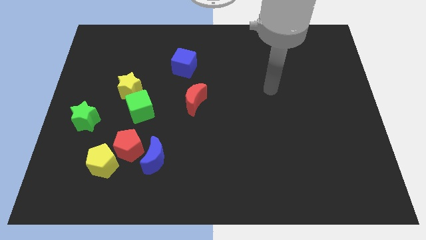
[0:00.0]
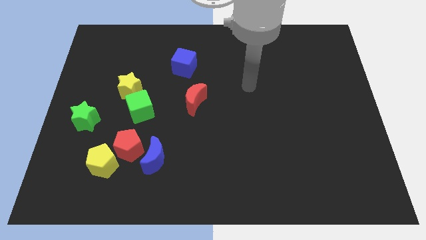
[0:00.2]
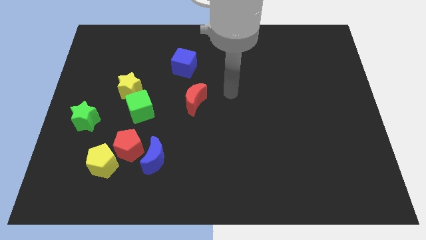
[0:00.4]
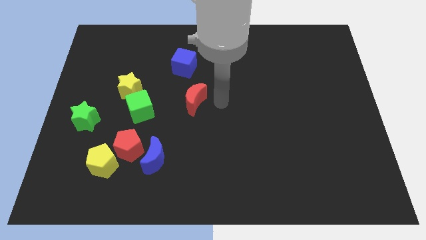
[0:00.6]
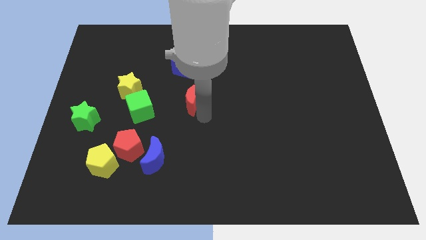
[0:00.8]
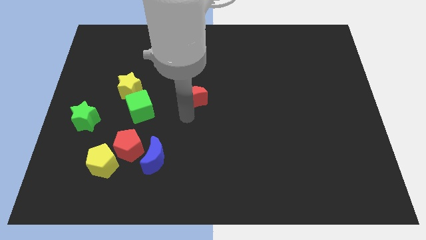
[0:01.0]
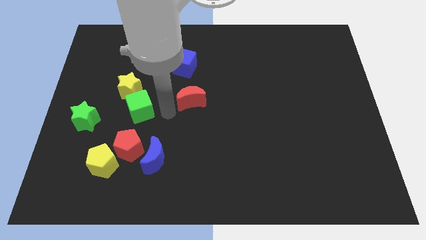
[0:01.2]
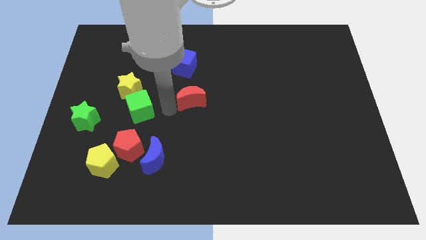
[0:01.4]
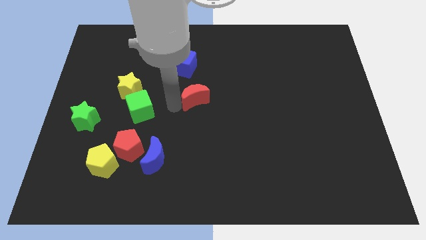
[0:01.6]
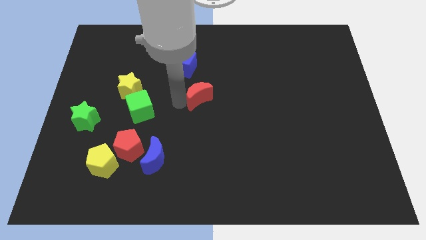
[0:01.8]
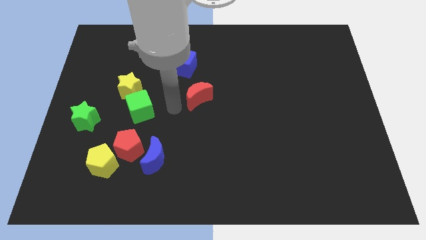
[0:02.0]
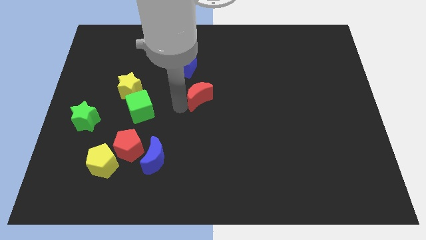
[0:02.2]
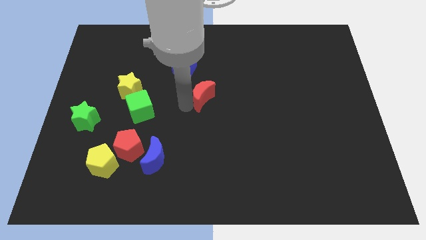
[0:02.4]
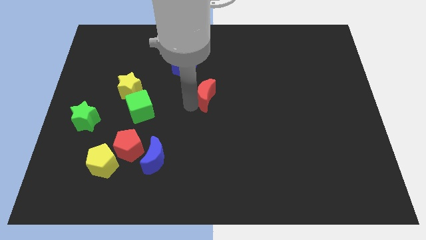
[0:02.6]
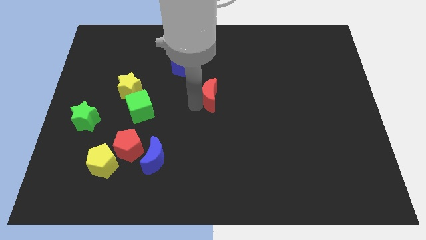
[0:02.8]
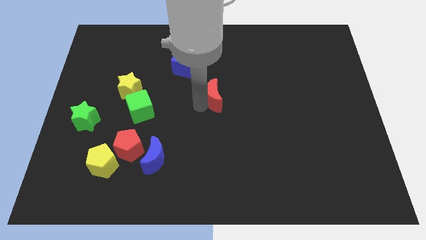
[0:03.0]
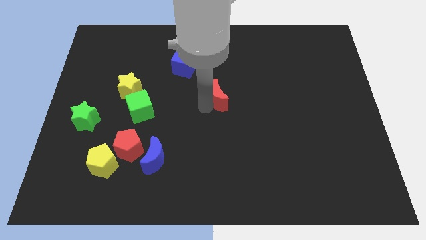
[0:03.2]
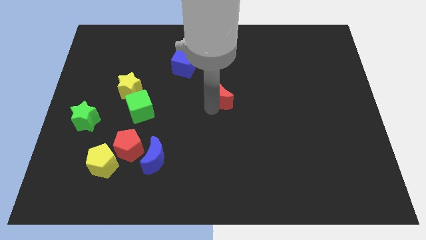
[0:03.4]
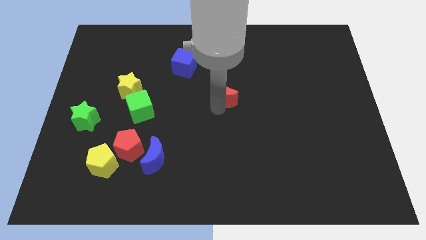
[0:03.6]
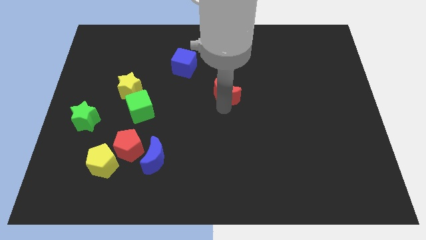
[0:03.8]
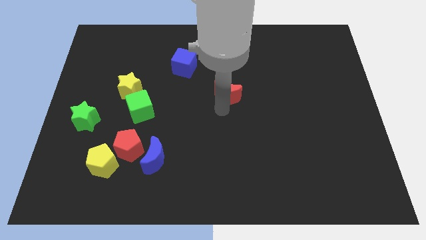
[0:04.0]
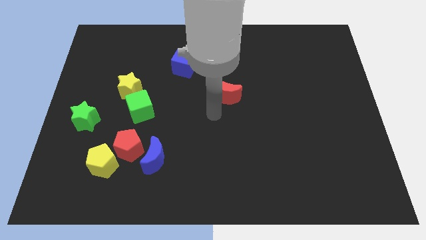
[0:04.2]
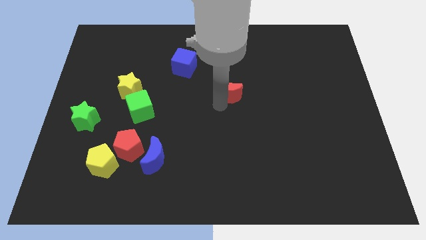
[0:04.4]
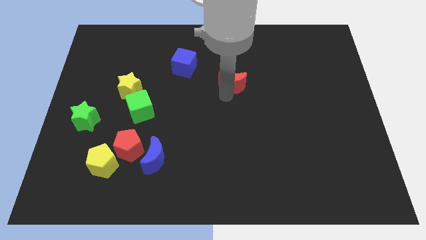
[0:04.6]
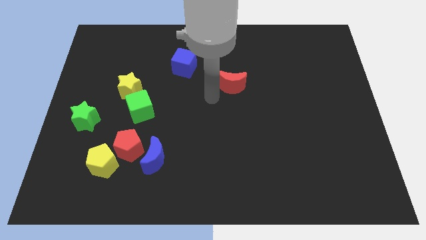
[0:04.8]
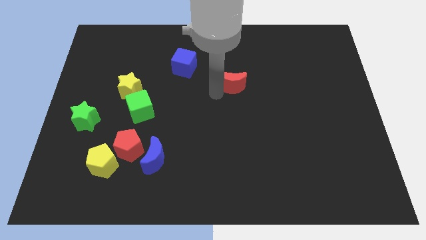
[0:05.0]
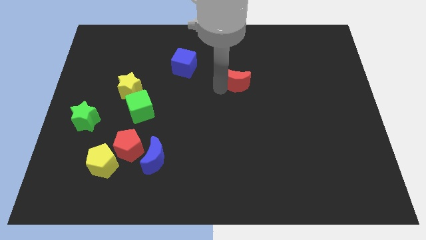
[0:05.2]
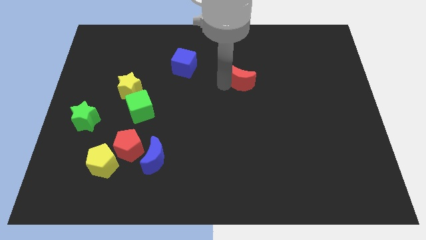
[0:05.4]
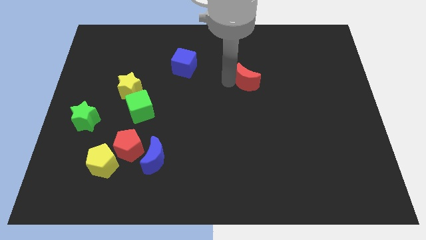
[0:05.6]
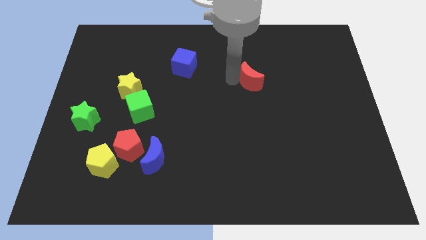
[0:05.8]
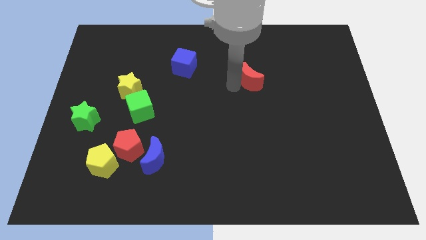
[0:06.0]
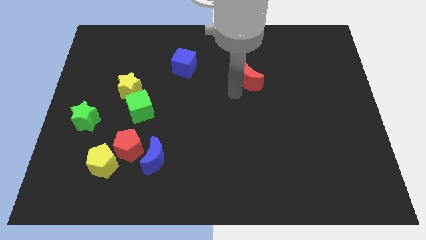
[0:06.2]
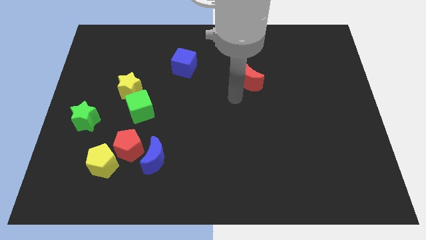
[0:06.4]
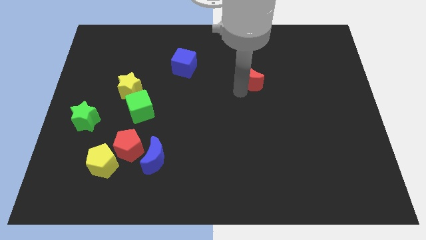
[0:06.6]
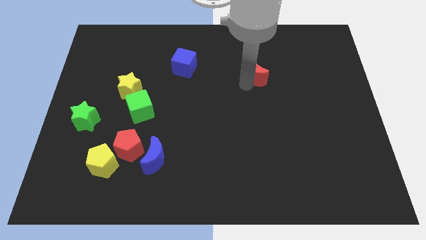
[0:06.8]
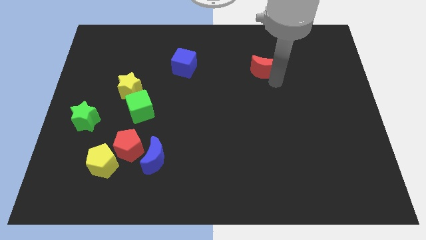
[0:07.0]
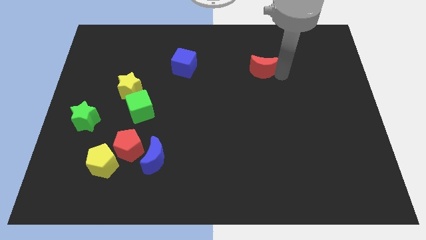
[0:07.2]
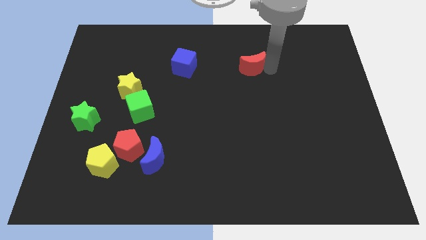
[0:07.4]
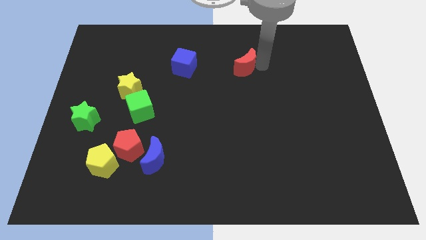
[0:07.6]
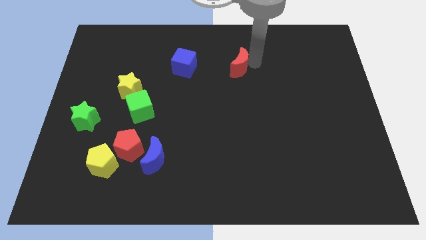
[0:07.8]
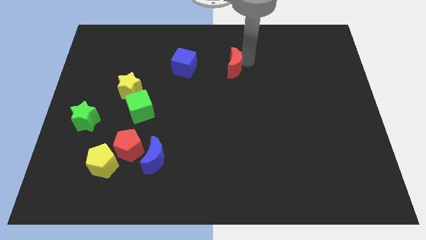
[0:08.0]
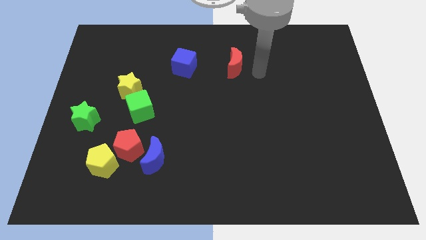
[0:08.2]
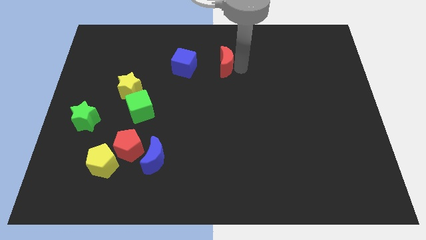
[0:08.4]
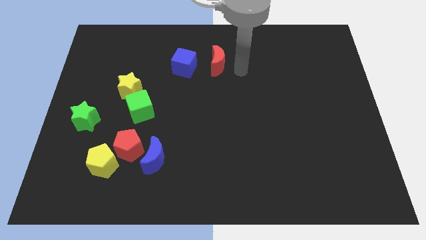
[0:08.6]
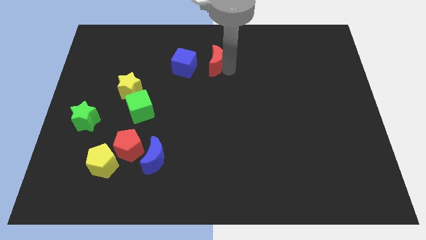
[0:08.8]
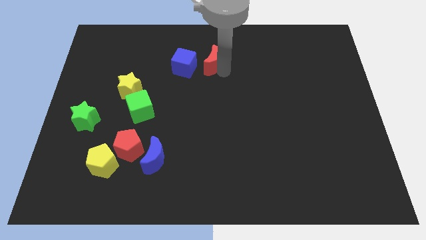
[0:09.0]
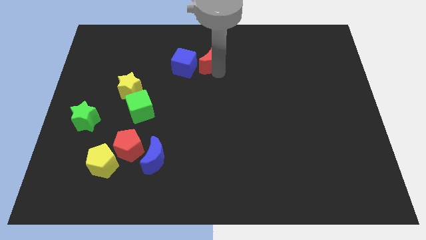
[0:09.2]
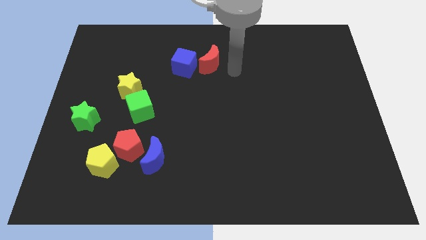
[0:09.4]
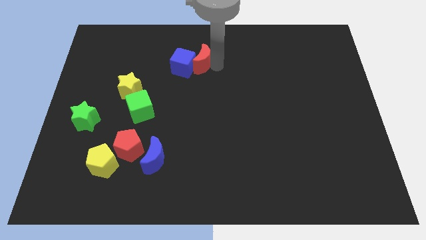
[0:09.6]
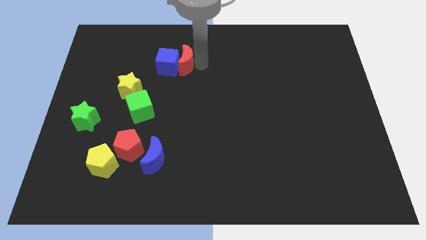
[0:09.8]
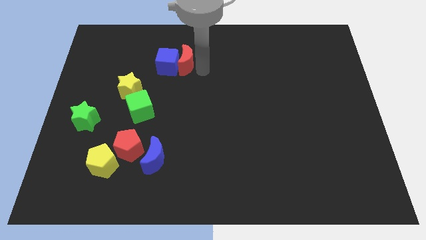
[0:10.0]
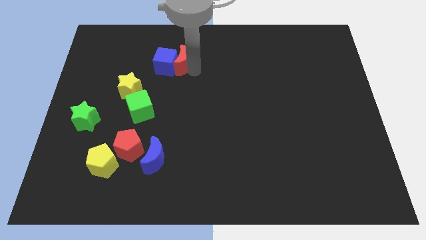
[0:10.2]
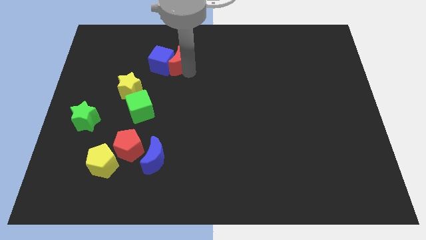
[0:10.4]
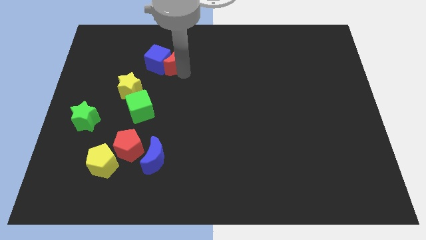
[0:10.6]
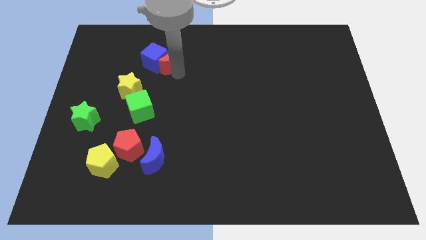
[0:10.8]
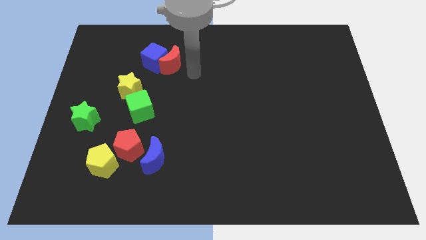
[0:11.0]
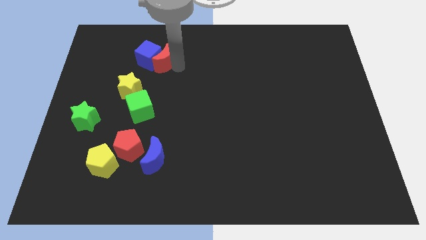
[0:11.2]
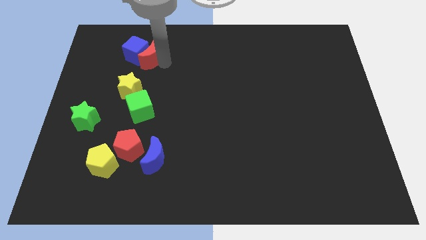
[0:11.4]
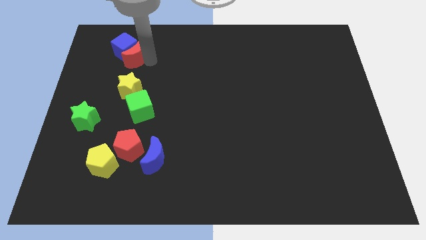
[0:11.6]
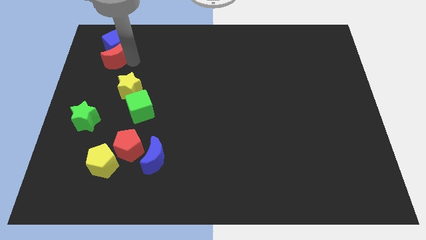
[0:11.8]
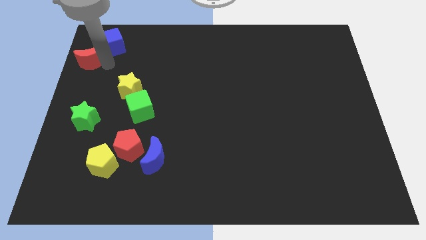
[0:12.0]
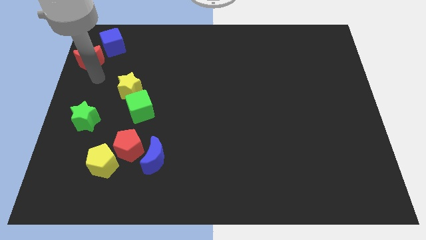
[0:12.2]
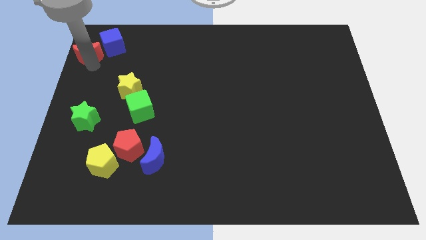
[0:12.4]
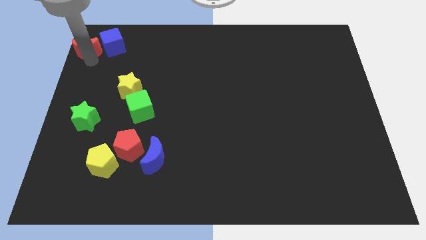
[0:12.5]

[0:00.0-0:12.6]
slide the red moon to the top left of the board

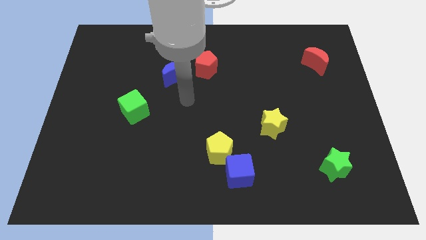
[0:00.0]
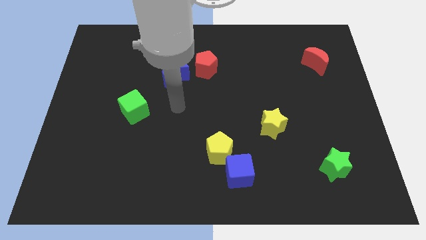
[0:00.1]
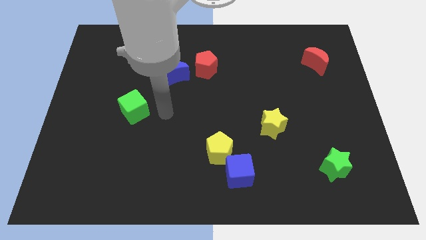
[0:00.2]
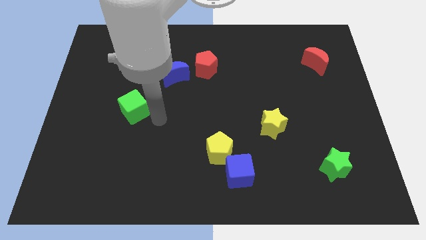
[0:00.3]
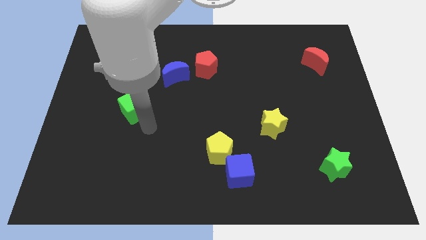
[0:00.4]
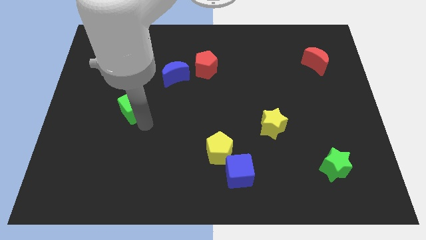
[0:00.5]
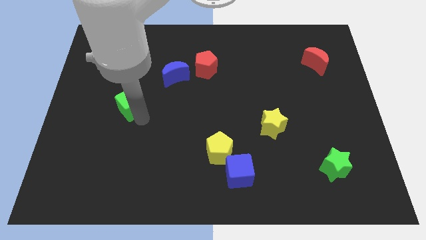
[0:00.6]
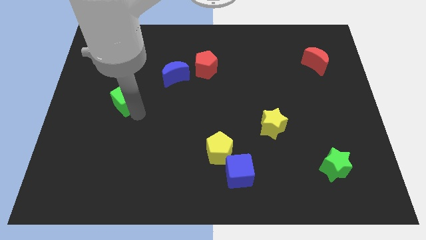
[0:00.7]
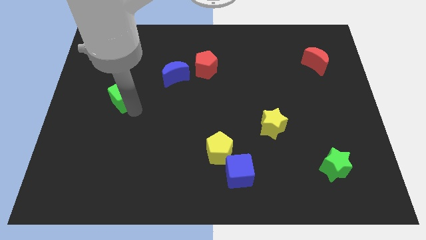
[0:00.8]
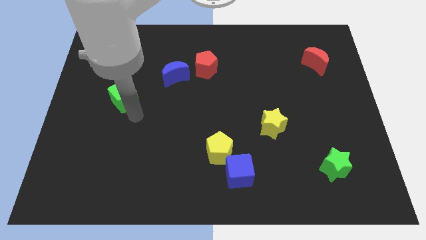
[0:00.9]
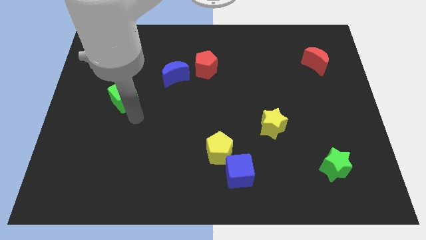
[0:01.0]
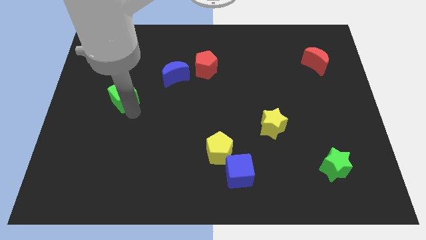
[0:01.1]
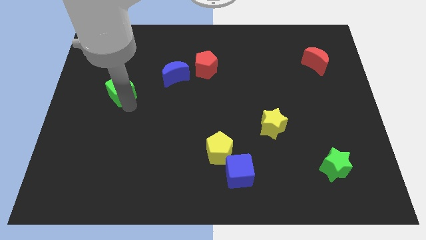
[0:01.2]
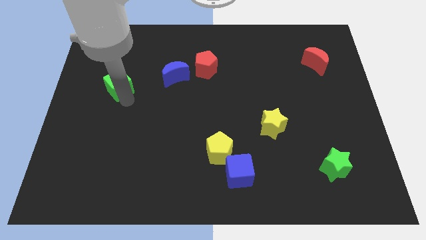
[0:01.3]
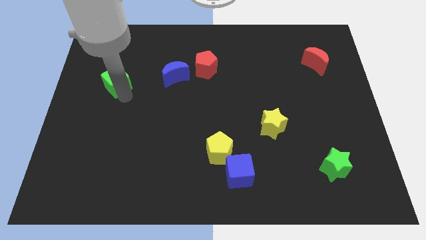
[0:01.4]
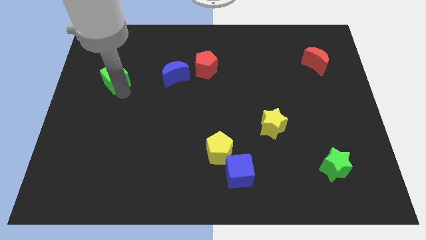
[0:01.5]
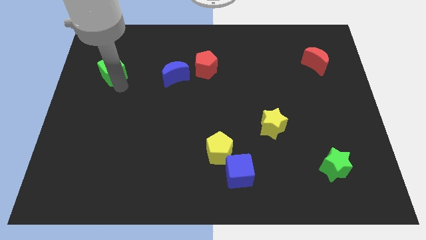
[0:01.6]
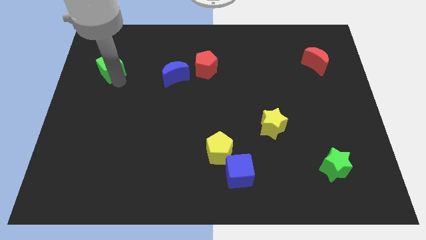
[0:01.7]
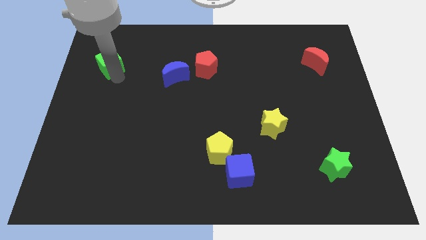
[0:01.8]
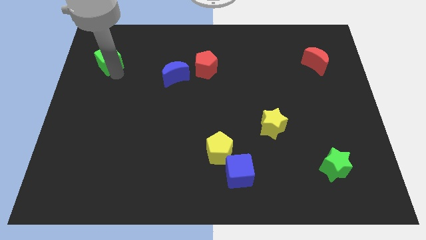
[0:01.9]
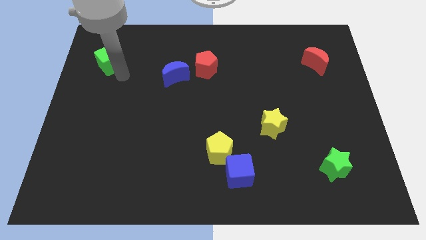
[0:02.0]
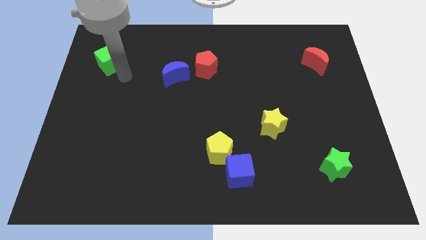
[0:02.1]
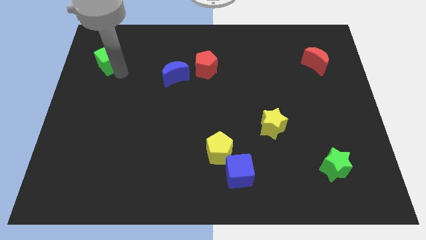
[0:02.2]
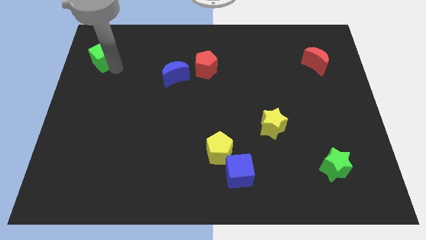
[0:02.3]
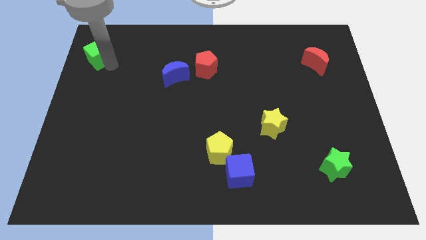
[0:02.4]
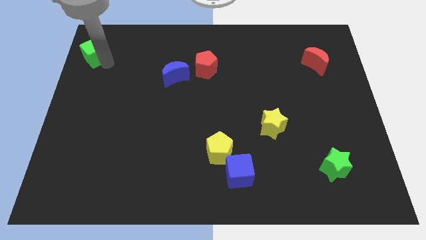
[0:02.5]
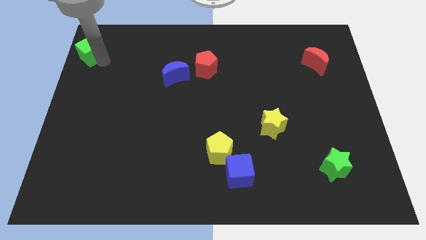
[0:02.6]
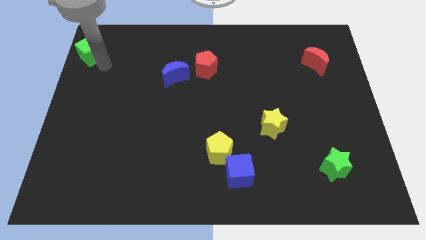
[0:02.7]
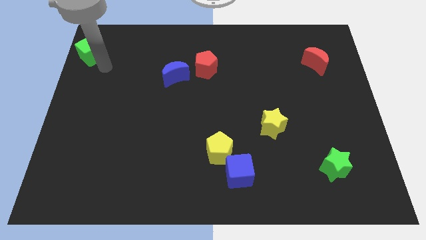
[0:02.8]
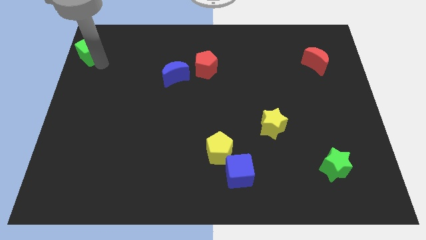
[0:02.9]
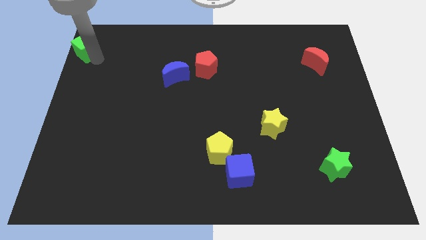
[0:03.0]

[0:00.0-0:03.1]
put the green cube to the upper left corner
